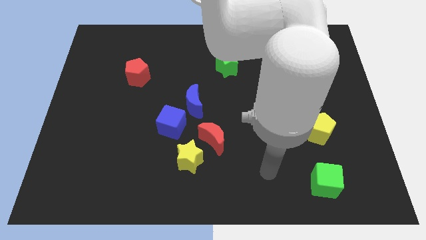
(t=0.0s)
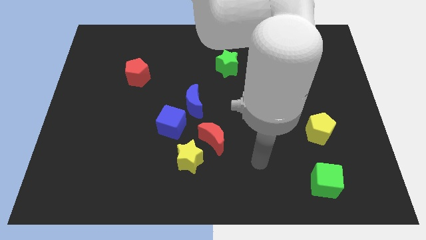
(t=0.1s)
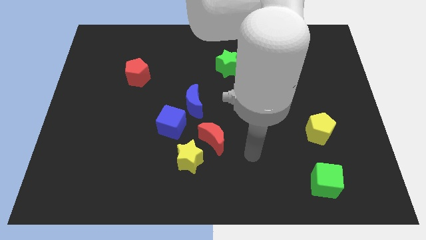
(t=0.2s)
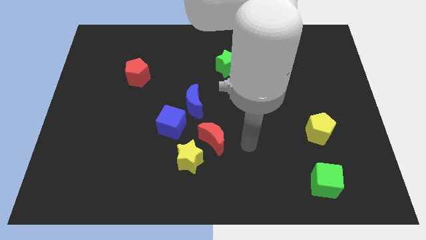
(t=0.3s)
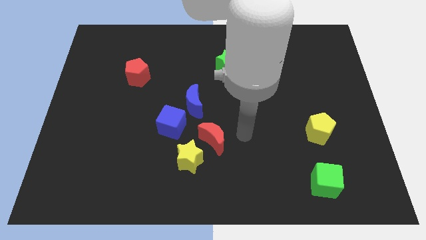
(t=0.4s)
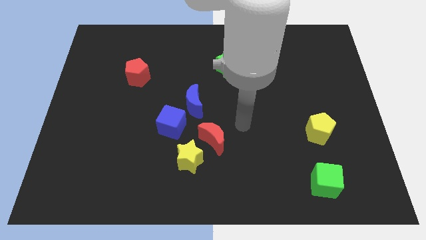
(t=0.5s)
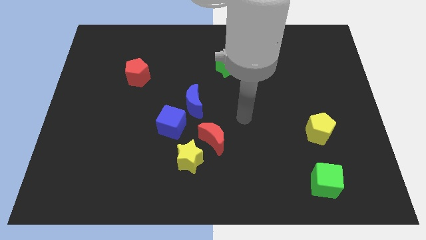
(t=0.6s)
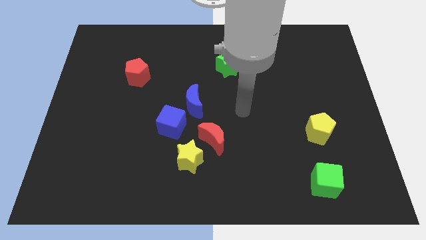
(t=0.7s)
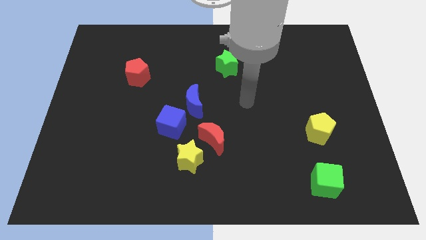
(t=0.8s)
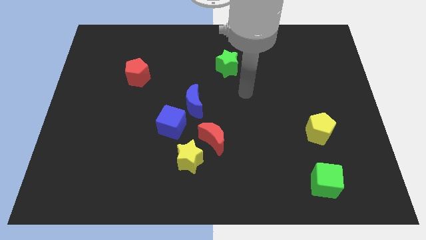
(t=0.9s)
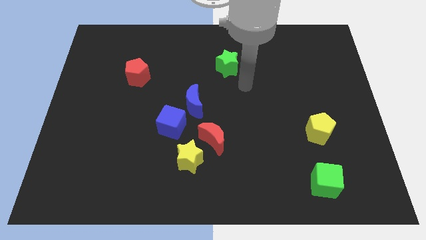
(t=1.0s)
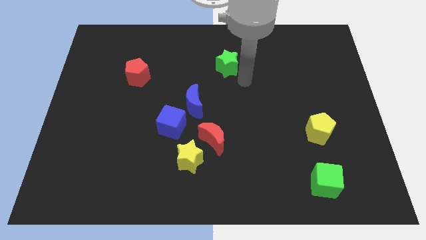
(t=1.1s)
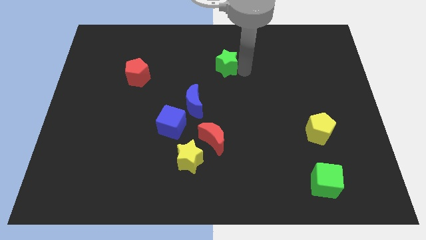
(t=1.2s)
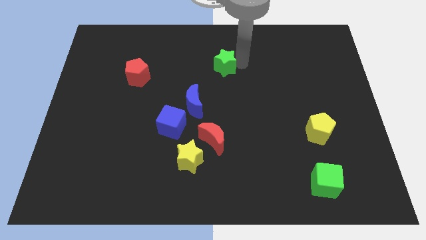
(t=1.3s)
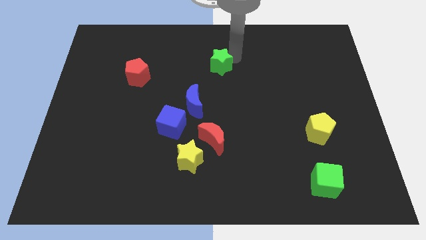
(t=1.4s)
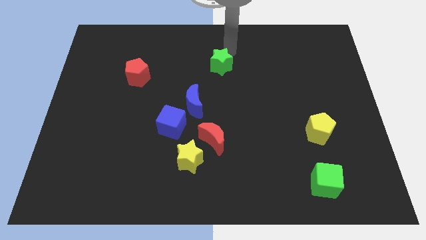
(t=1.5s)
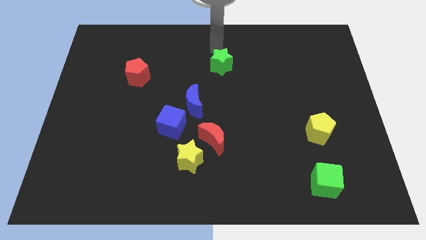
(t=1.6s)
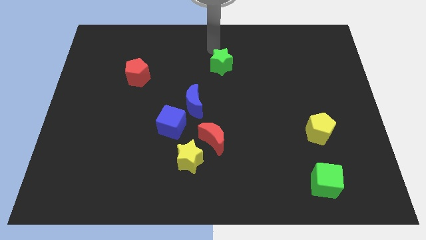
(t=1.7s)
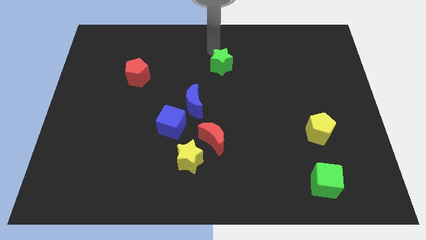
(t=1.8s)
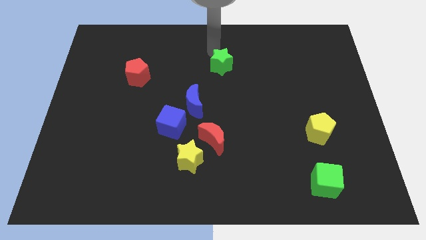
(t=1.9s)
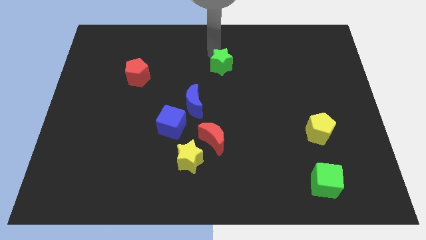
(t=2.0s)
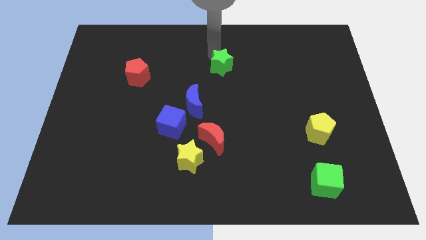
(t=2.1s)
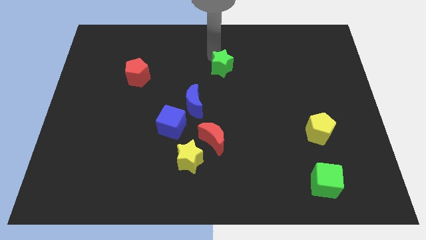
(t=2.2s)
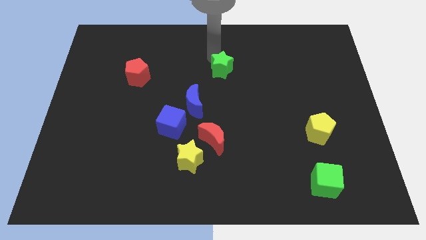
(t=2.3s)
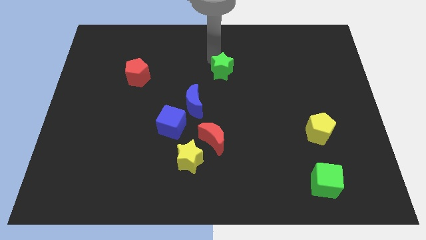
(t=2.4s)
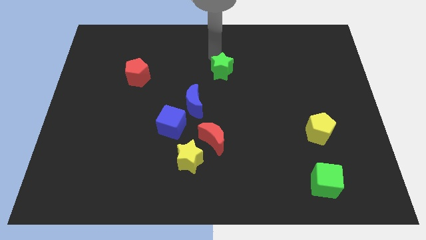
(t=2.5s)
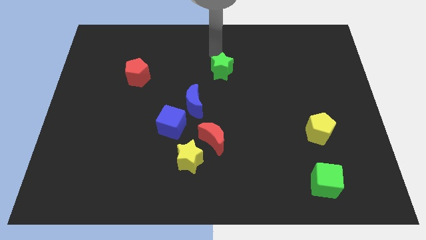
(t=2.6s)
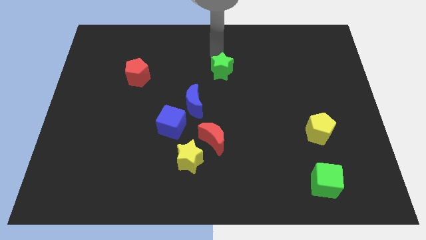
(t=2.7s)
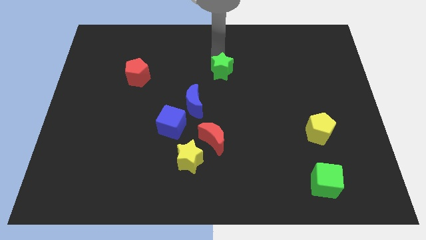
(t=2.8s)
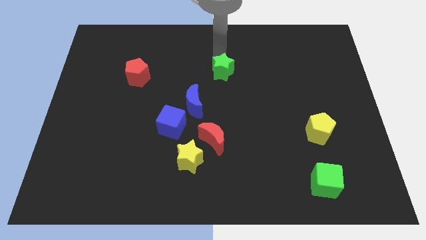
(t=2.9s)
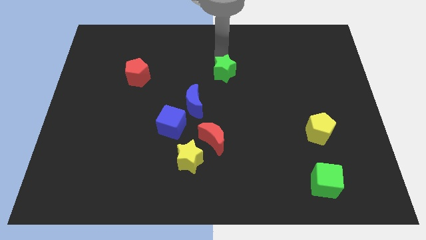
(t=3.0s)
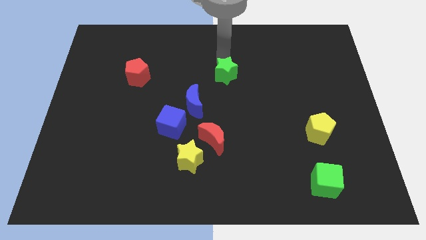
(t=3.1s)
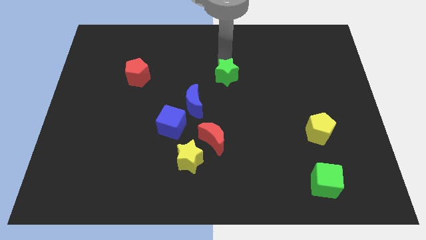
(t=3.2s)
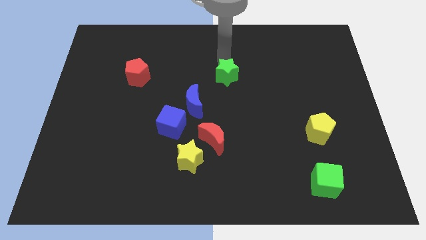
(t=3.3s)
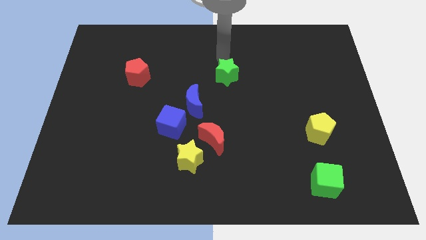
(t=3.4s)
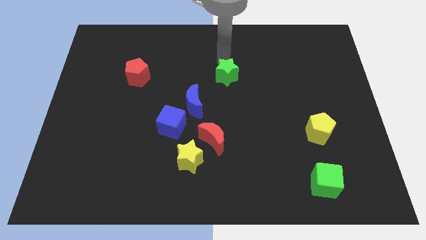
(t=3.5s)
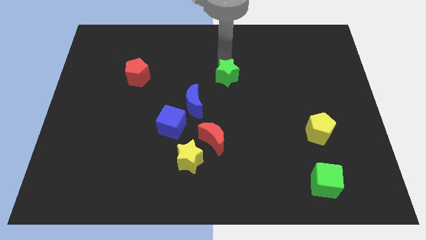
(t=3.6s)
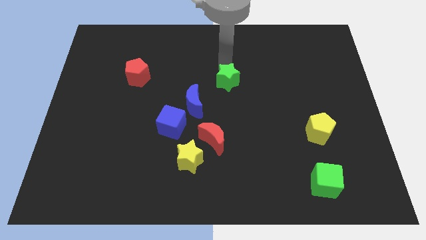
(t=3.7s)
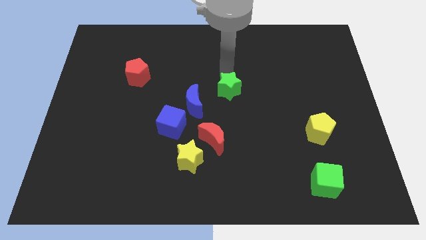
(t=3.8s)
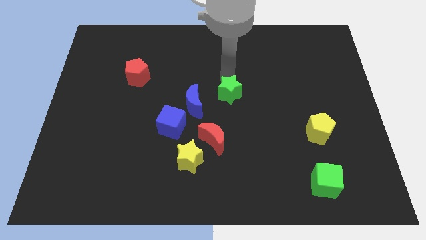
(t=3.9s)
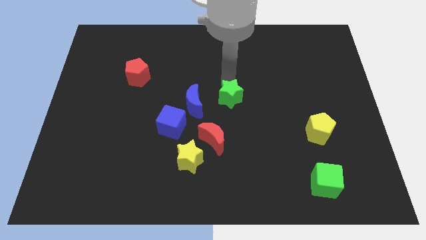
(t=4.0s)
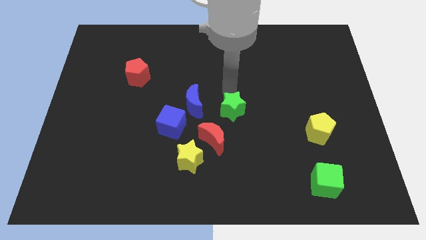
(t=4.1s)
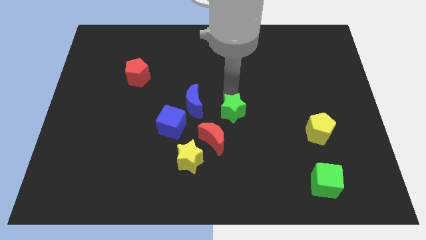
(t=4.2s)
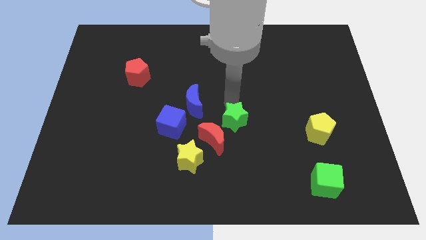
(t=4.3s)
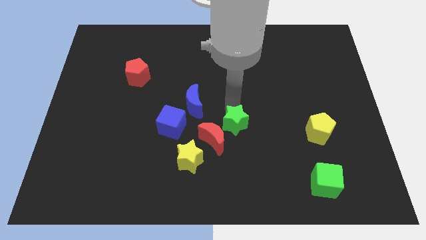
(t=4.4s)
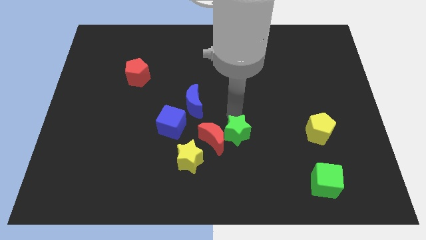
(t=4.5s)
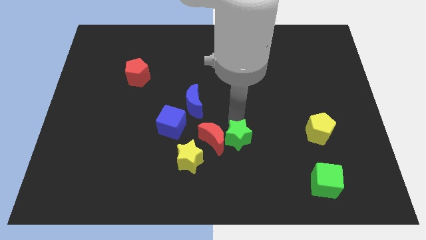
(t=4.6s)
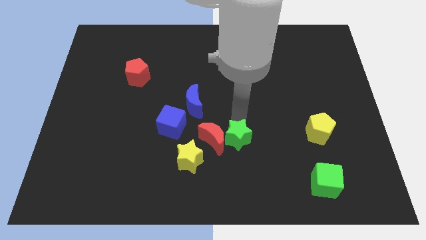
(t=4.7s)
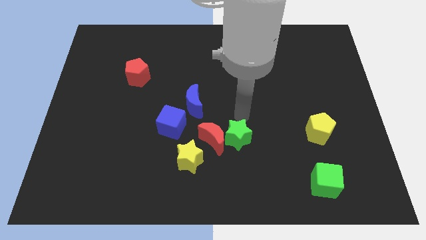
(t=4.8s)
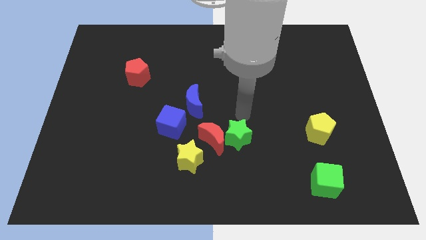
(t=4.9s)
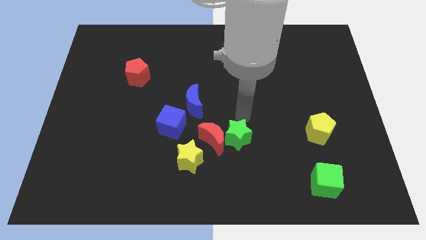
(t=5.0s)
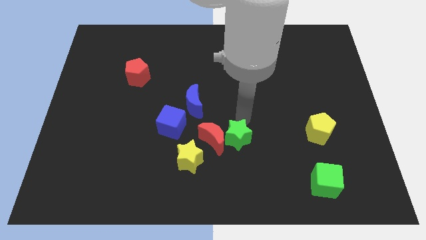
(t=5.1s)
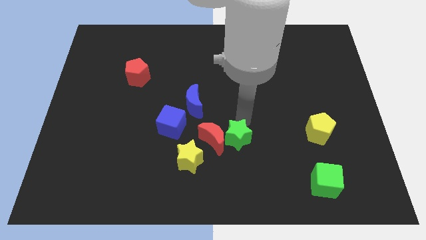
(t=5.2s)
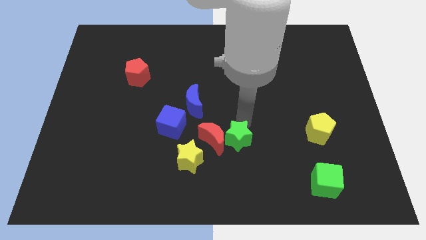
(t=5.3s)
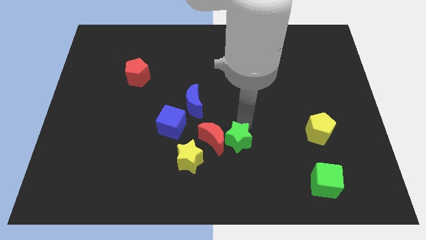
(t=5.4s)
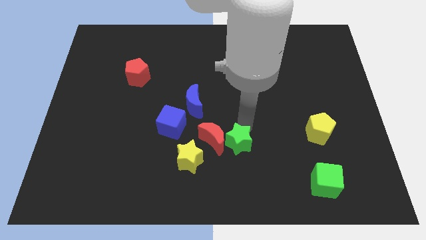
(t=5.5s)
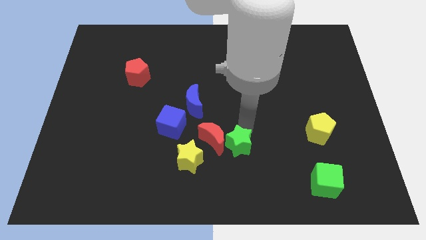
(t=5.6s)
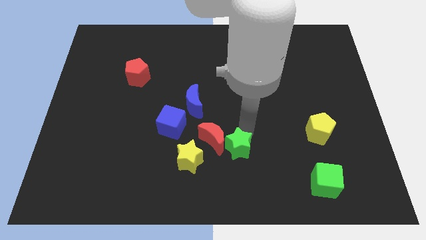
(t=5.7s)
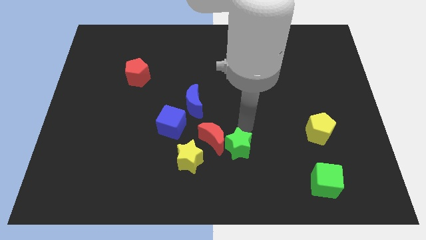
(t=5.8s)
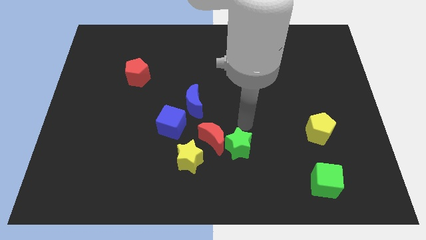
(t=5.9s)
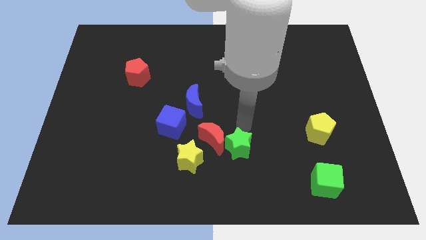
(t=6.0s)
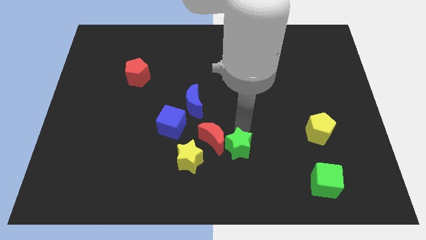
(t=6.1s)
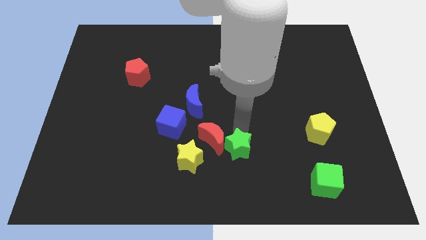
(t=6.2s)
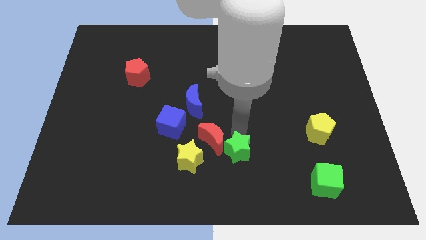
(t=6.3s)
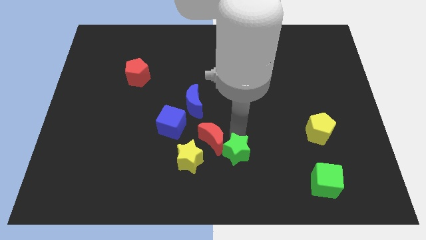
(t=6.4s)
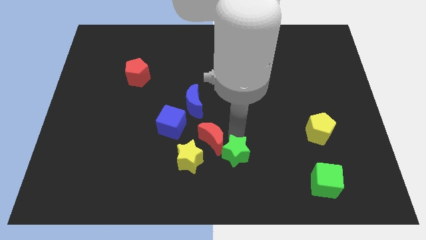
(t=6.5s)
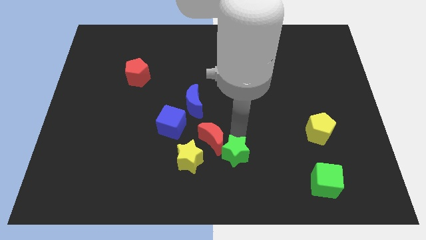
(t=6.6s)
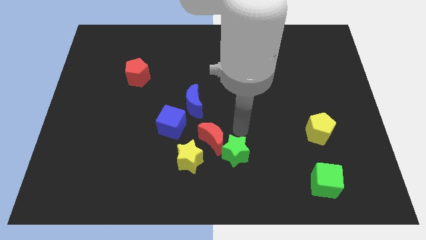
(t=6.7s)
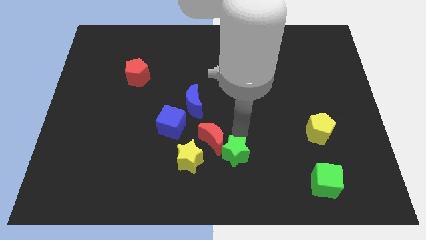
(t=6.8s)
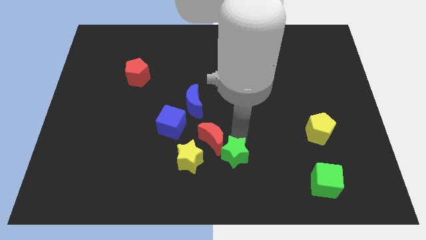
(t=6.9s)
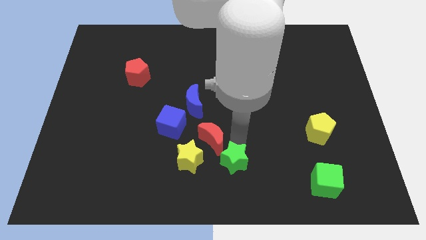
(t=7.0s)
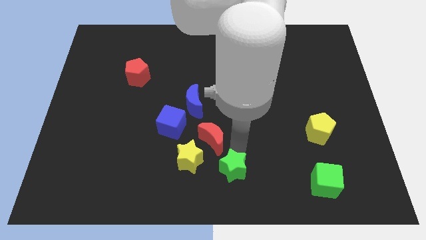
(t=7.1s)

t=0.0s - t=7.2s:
move the green star to the bottom right side of the yellow star
